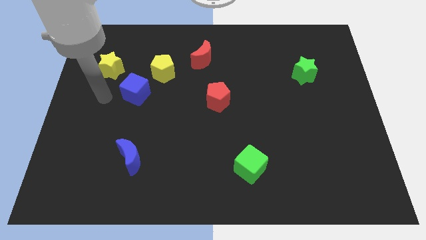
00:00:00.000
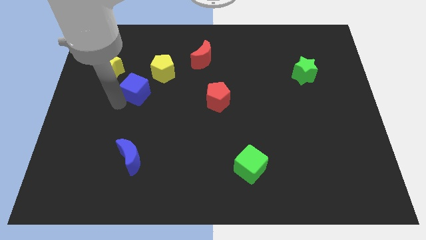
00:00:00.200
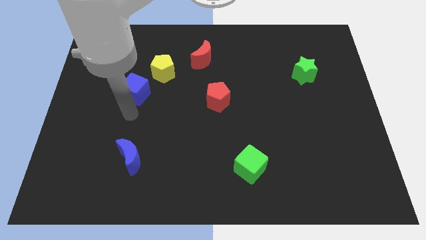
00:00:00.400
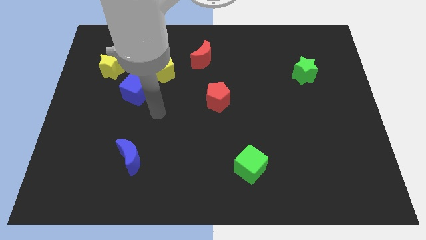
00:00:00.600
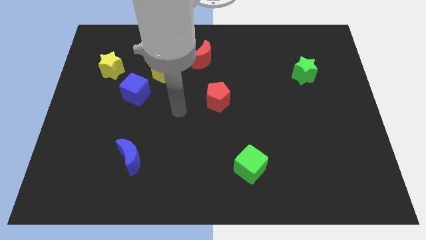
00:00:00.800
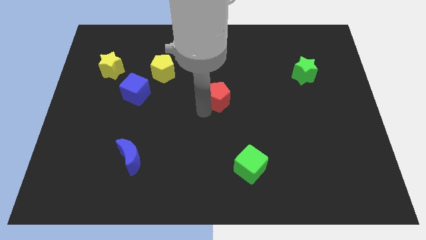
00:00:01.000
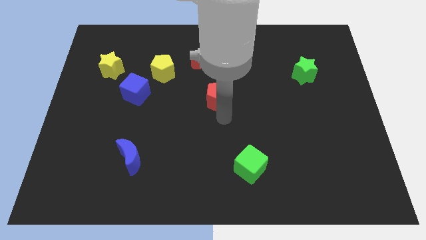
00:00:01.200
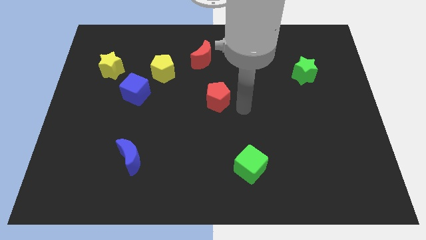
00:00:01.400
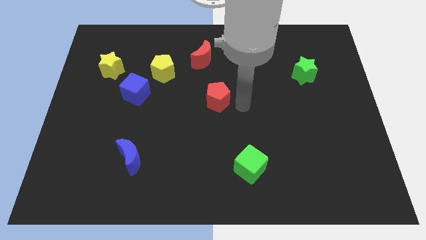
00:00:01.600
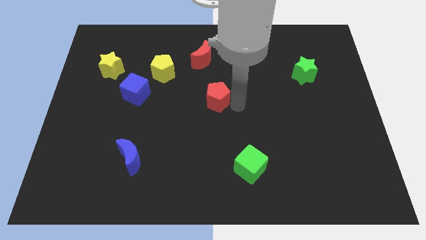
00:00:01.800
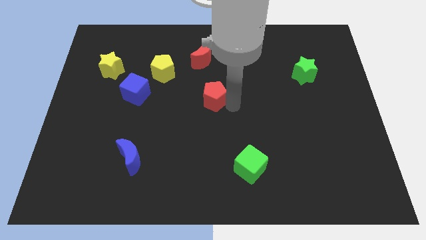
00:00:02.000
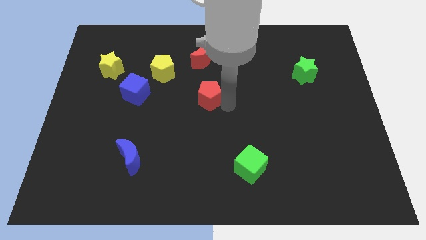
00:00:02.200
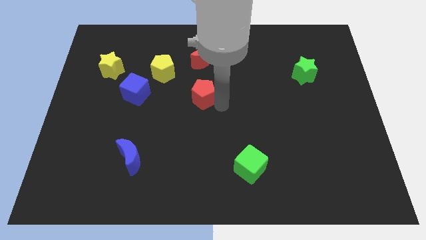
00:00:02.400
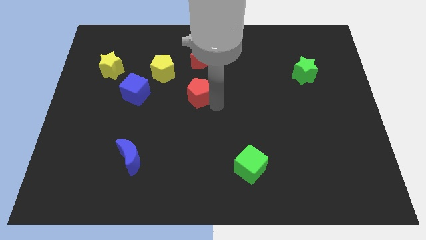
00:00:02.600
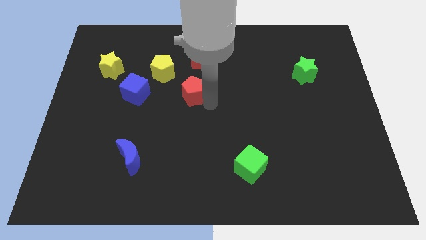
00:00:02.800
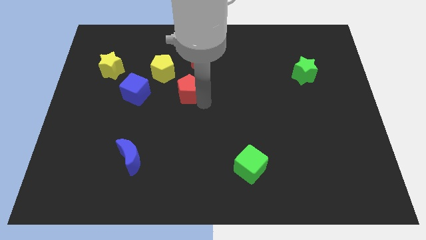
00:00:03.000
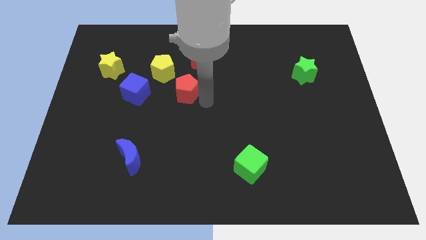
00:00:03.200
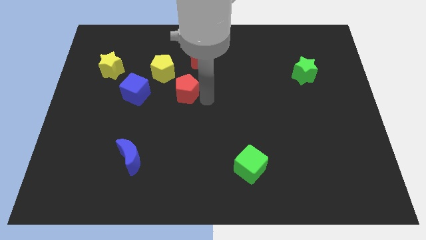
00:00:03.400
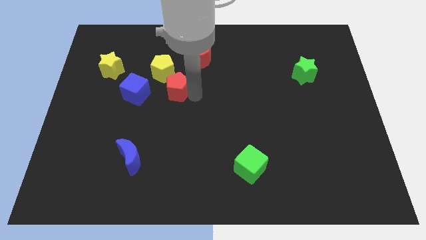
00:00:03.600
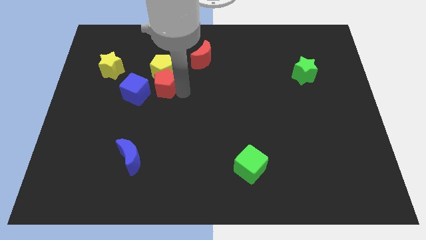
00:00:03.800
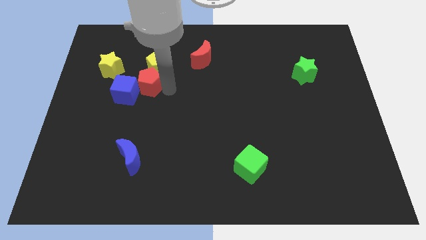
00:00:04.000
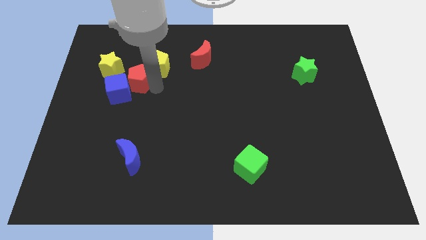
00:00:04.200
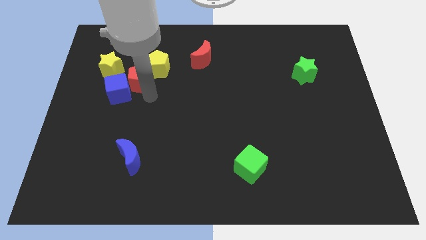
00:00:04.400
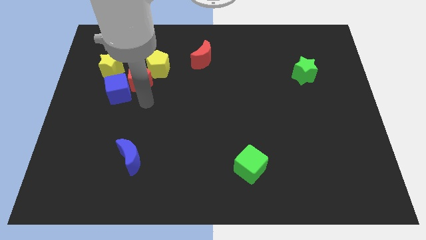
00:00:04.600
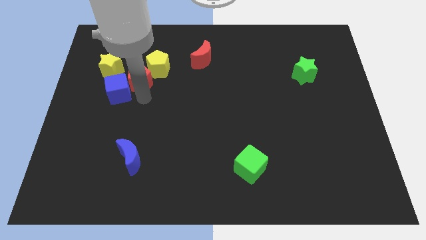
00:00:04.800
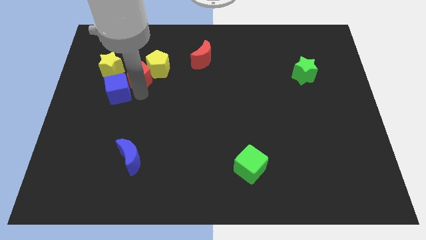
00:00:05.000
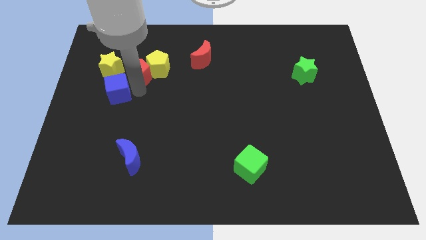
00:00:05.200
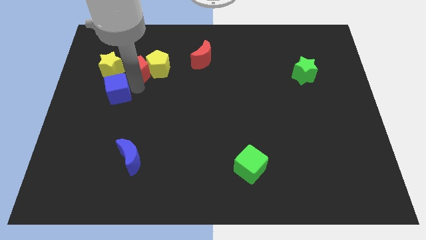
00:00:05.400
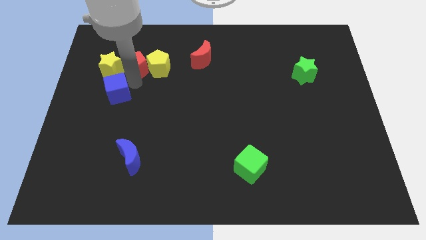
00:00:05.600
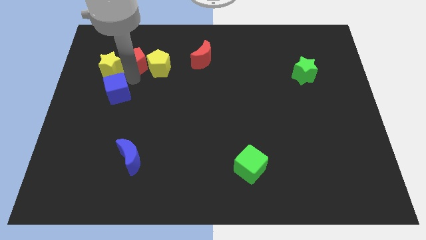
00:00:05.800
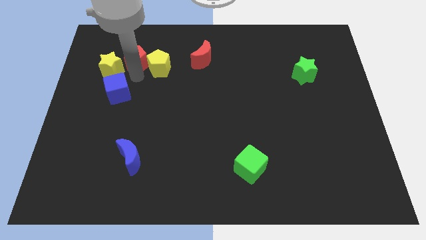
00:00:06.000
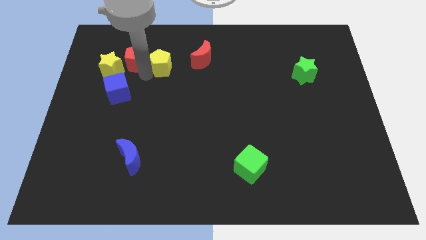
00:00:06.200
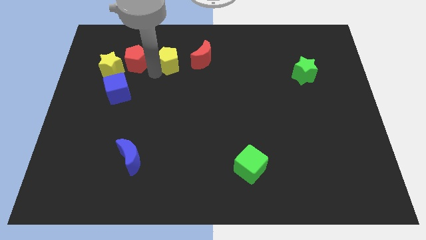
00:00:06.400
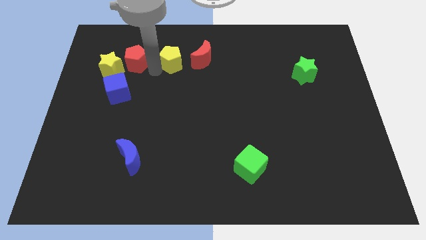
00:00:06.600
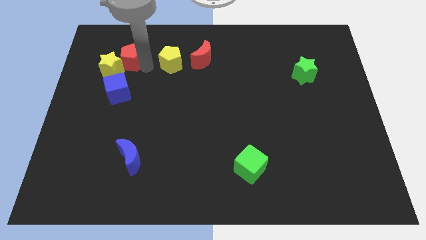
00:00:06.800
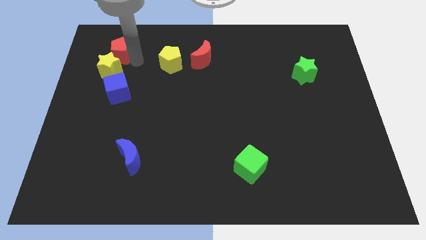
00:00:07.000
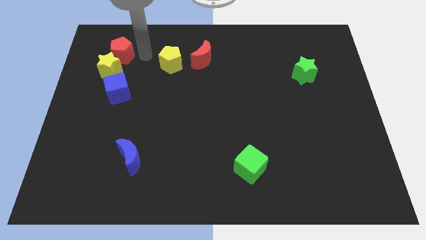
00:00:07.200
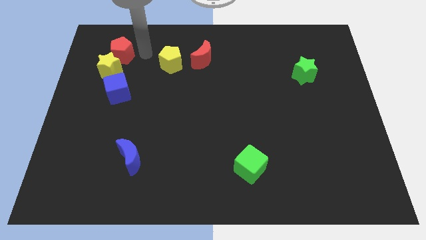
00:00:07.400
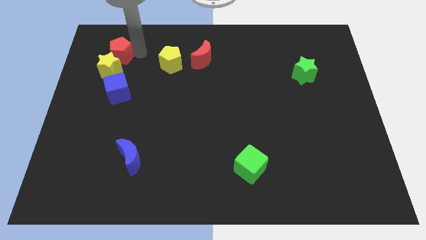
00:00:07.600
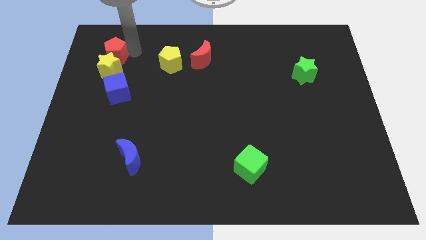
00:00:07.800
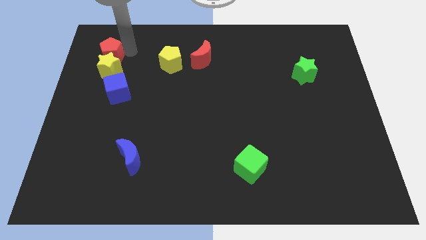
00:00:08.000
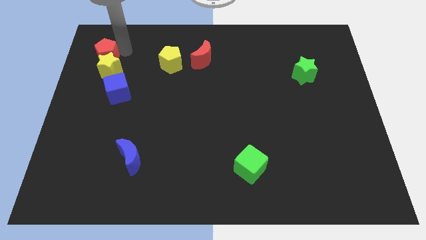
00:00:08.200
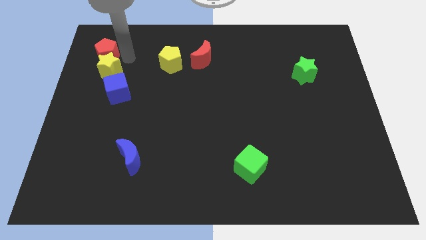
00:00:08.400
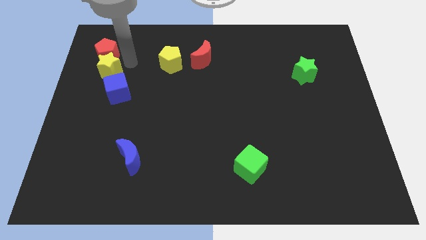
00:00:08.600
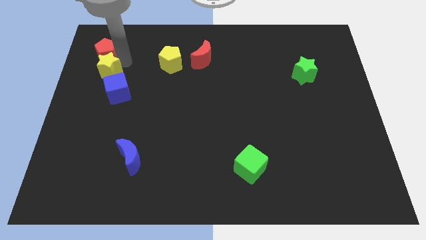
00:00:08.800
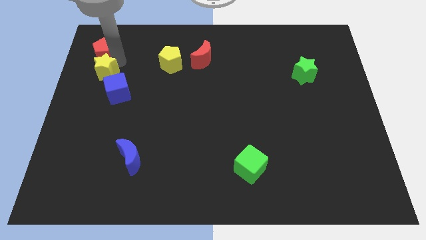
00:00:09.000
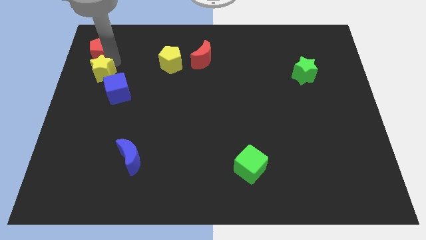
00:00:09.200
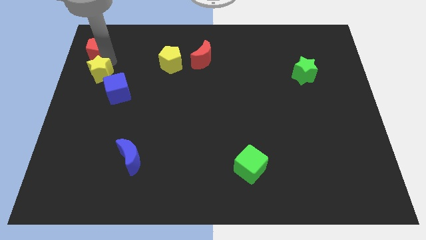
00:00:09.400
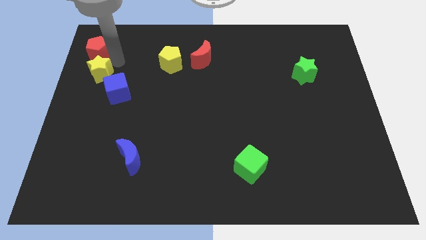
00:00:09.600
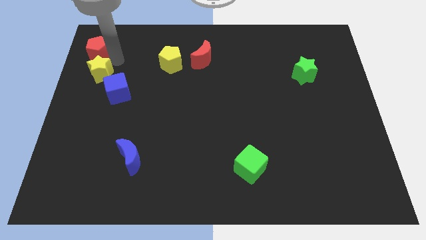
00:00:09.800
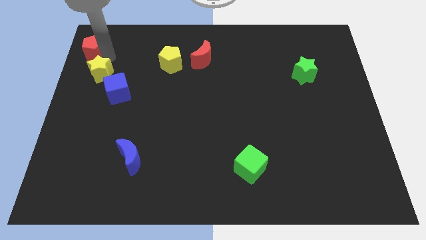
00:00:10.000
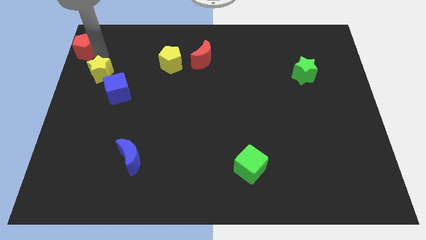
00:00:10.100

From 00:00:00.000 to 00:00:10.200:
move the red pentagon to the top left corner

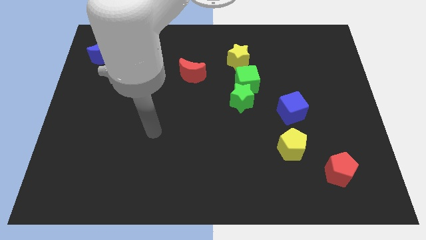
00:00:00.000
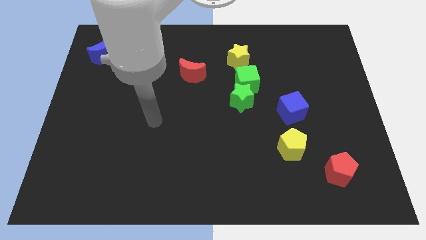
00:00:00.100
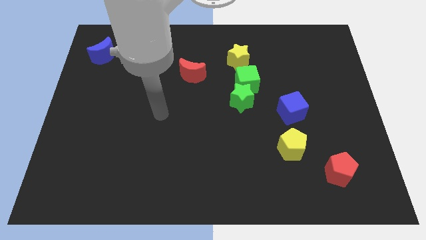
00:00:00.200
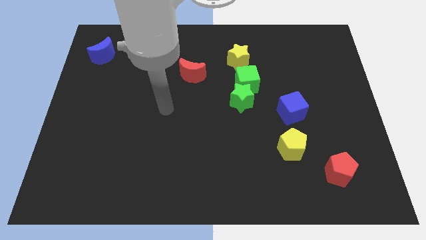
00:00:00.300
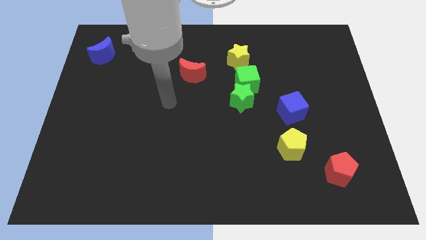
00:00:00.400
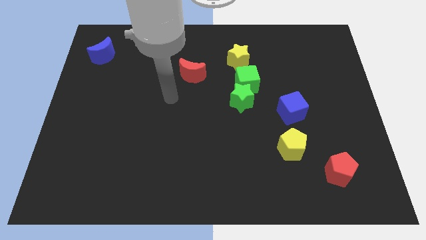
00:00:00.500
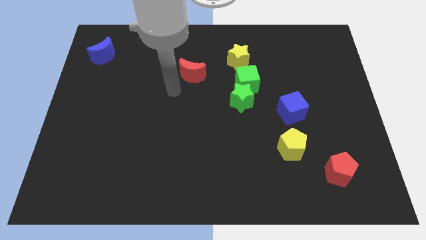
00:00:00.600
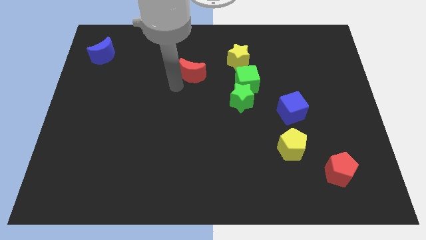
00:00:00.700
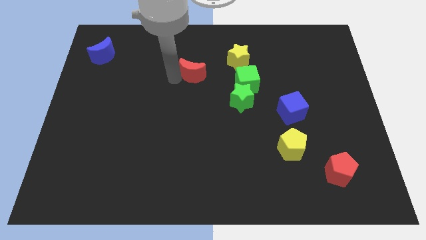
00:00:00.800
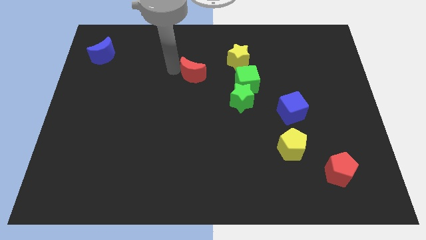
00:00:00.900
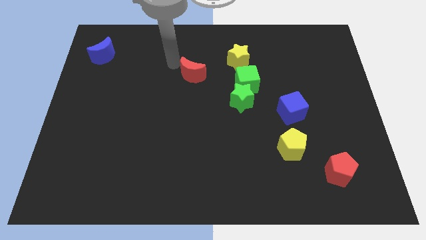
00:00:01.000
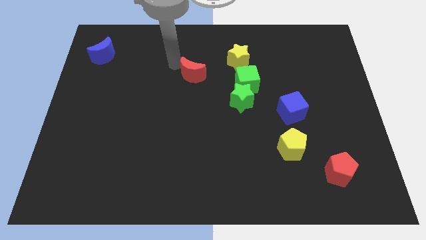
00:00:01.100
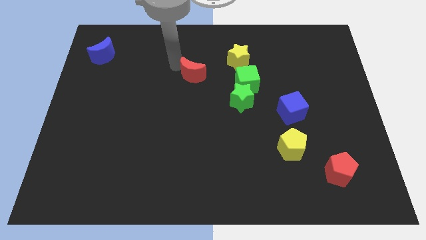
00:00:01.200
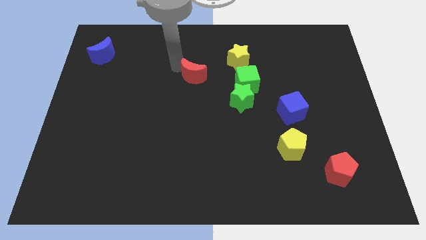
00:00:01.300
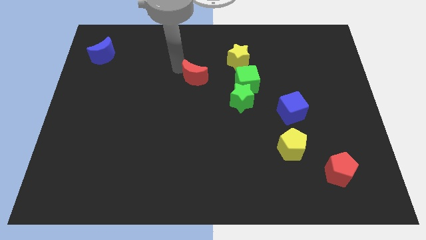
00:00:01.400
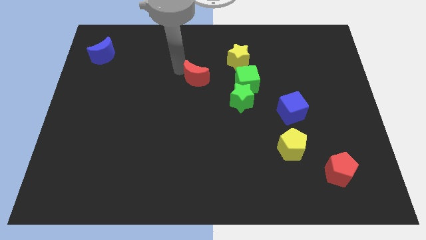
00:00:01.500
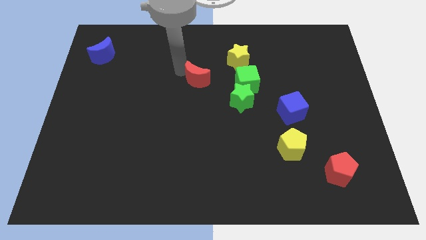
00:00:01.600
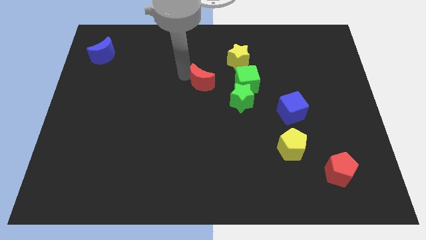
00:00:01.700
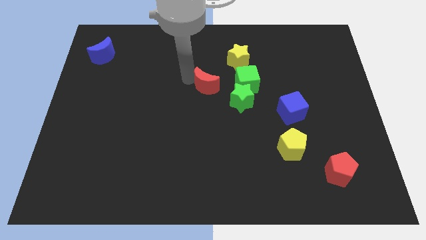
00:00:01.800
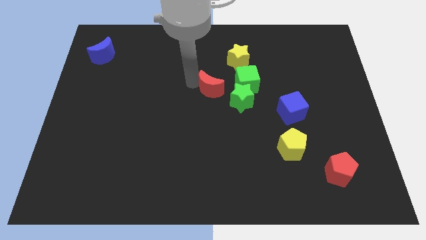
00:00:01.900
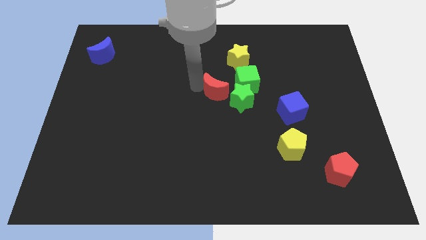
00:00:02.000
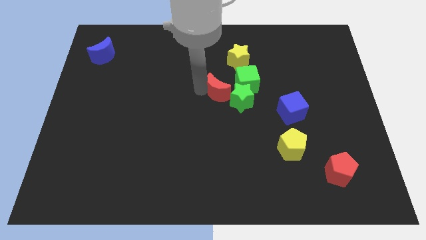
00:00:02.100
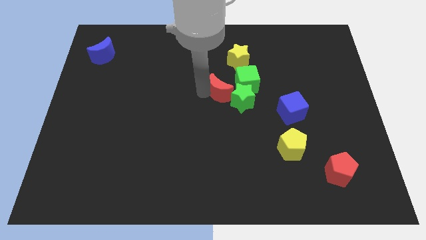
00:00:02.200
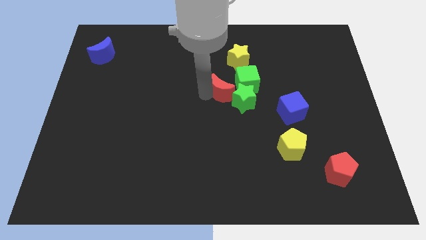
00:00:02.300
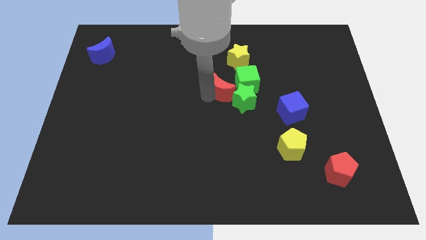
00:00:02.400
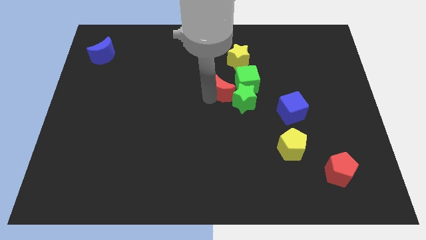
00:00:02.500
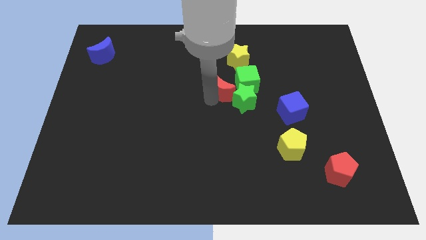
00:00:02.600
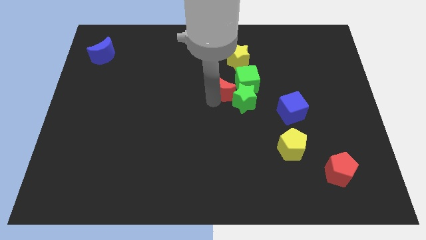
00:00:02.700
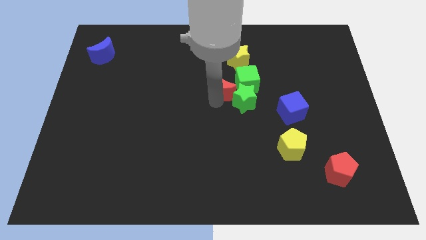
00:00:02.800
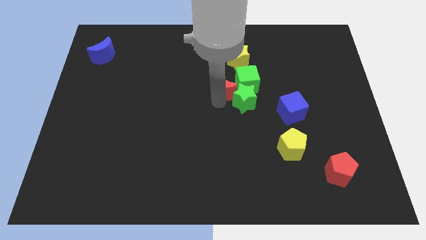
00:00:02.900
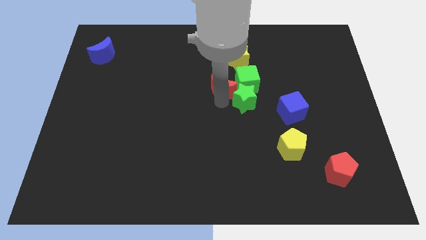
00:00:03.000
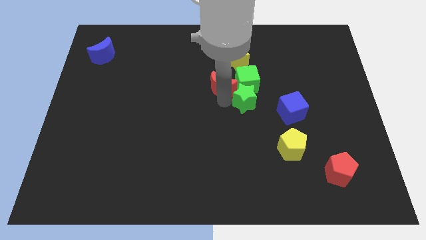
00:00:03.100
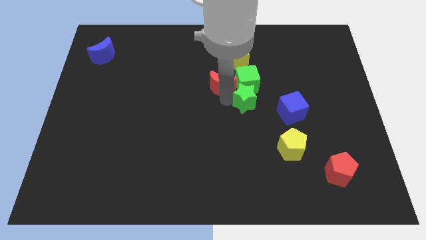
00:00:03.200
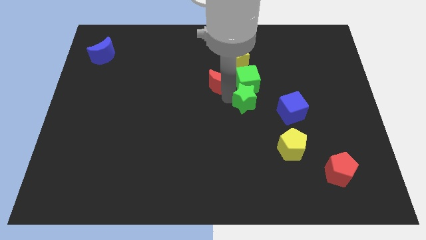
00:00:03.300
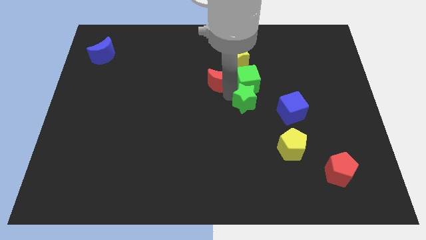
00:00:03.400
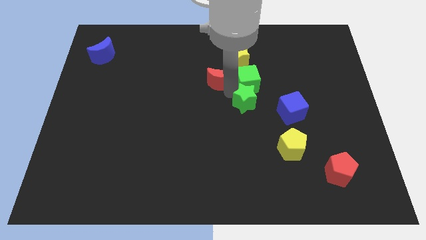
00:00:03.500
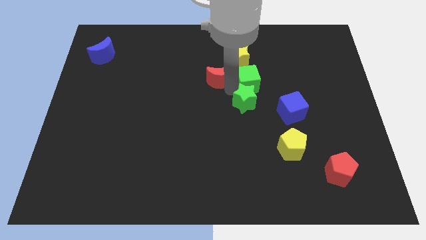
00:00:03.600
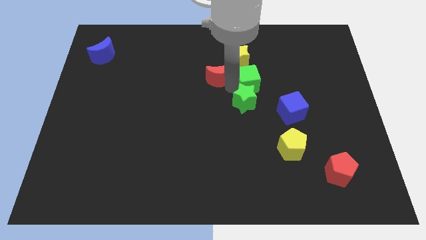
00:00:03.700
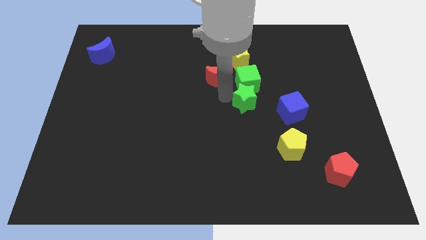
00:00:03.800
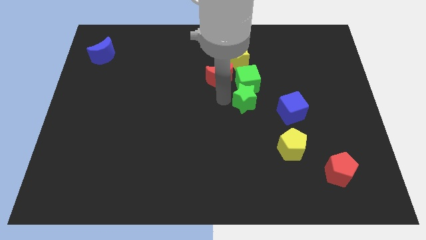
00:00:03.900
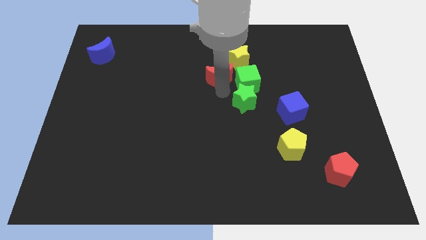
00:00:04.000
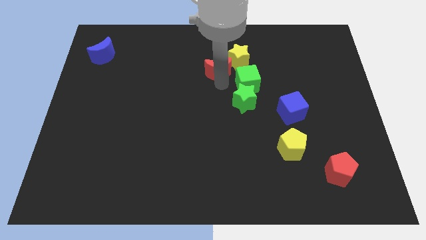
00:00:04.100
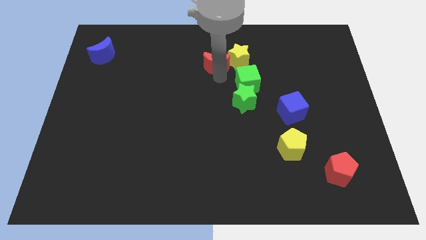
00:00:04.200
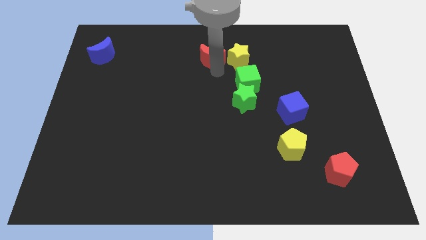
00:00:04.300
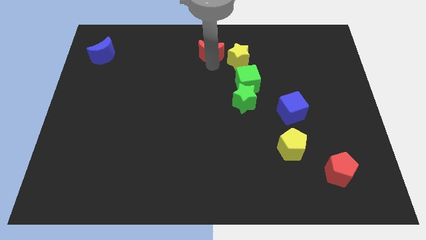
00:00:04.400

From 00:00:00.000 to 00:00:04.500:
slide the red moon to the top side
